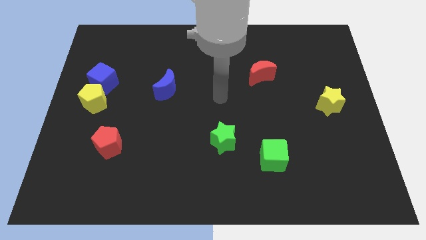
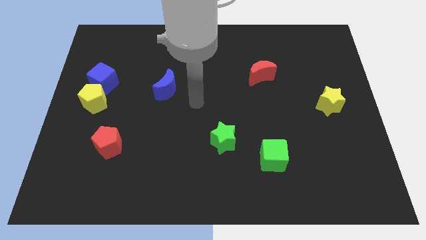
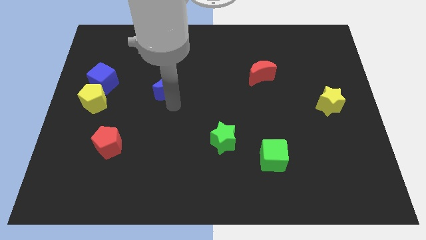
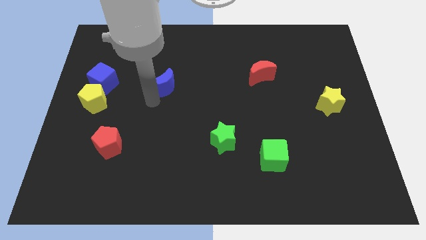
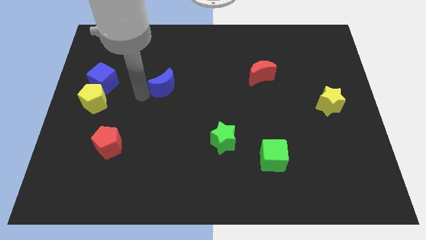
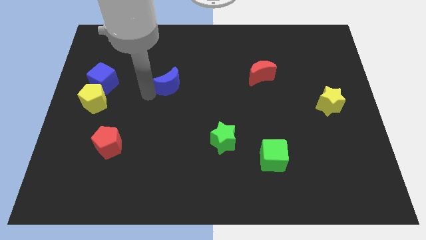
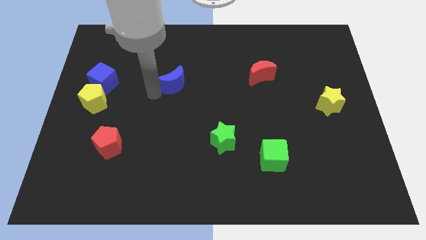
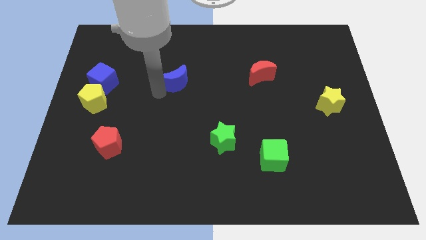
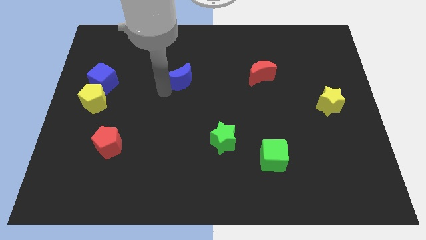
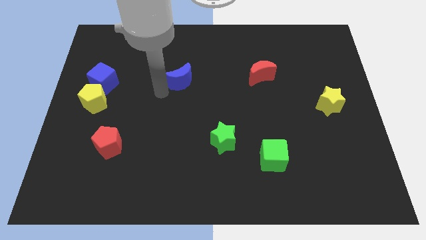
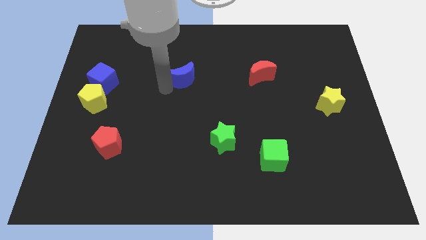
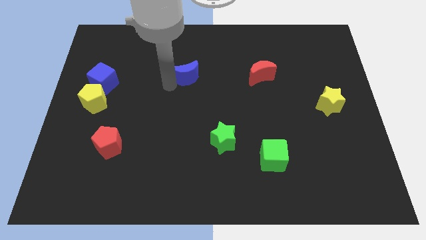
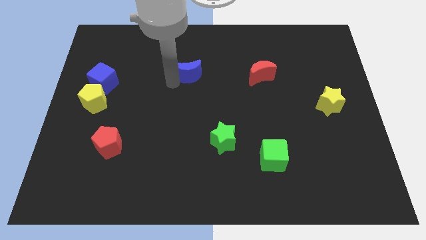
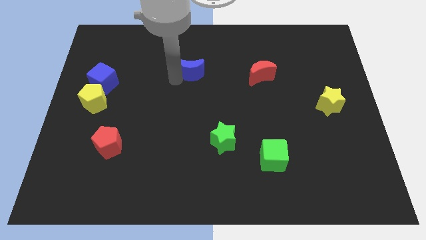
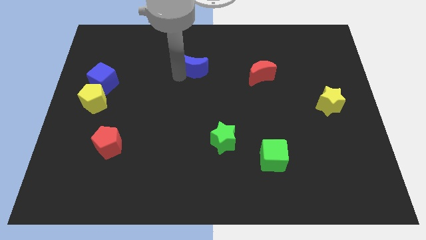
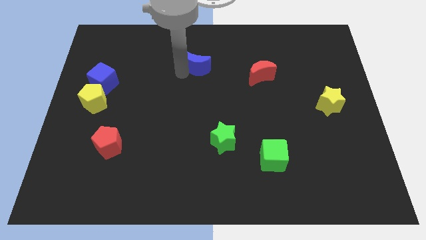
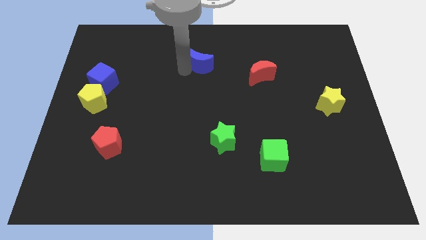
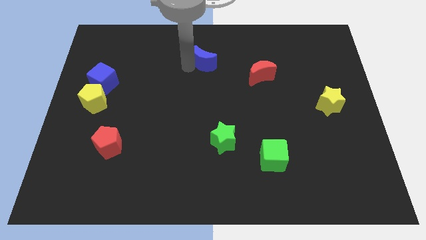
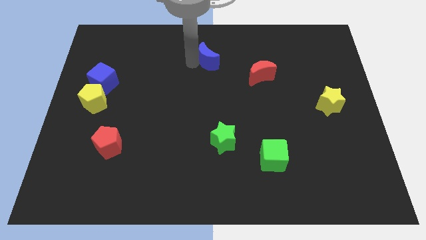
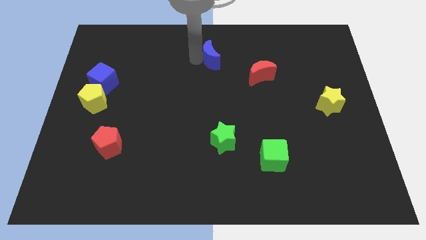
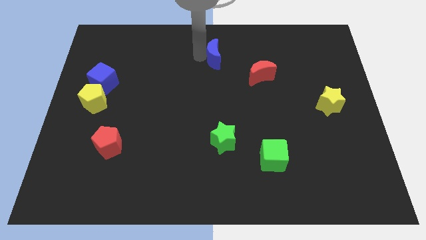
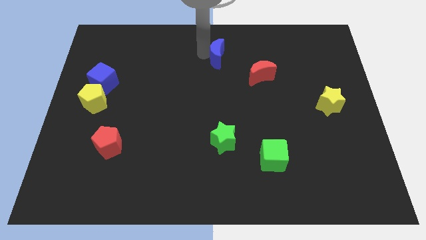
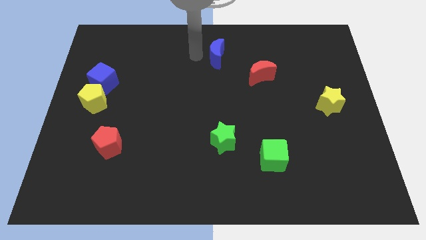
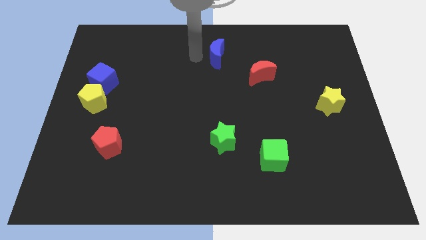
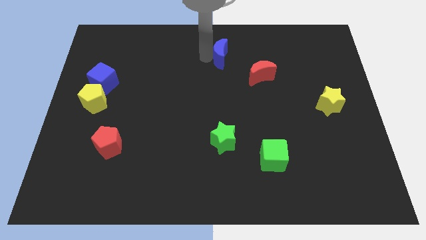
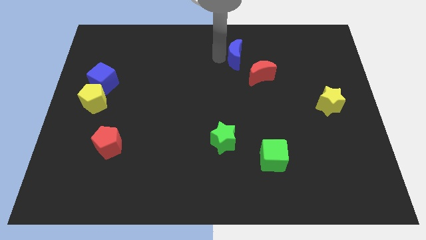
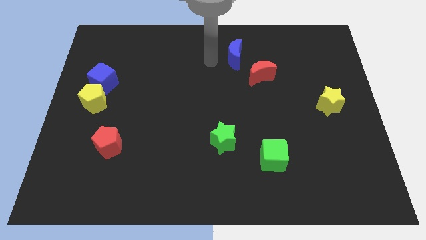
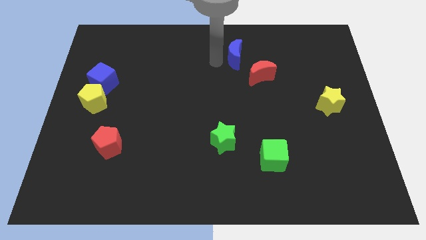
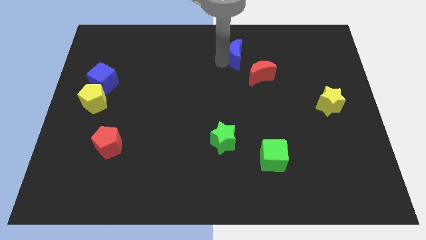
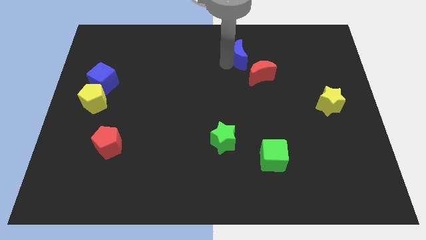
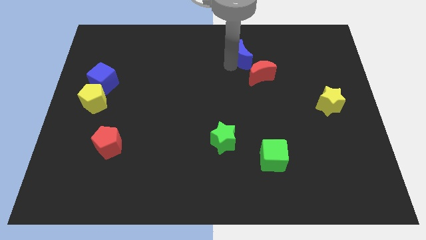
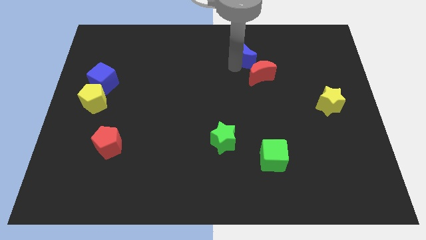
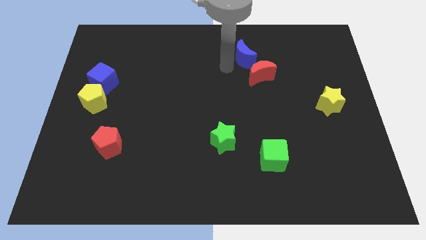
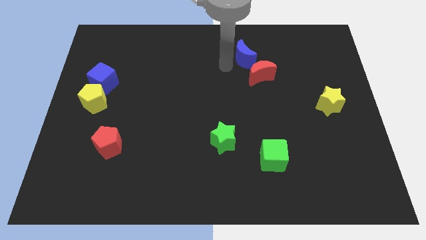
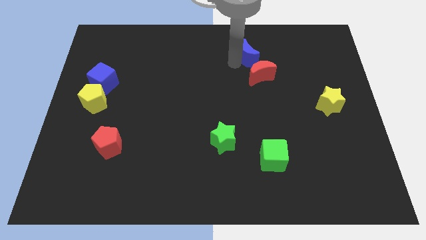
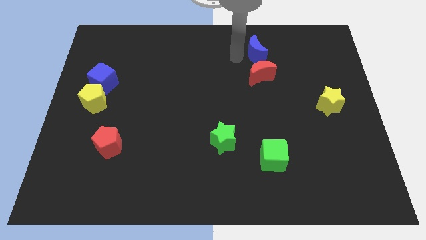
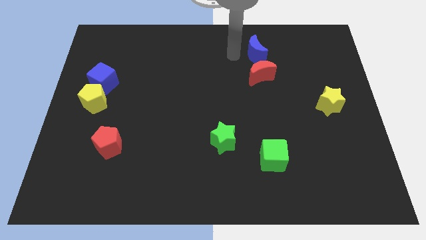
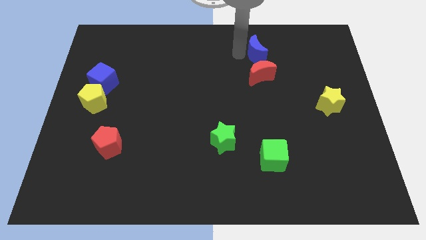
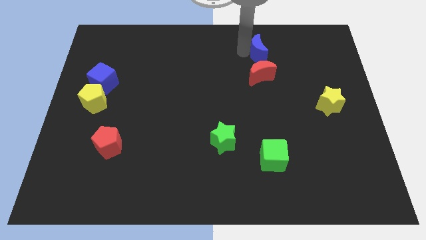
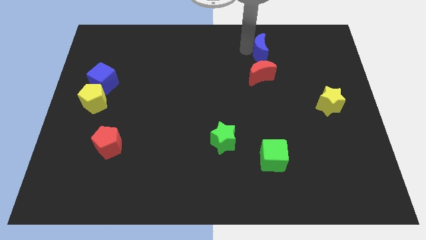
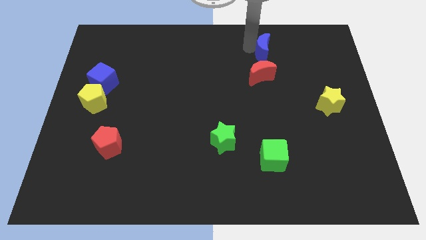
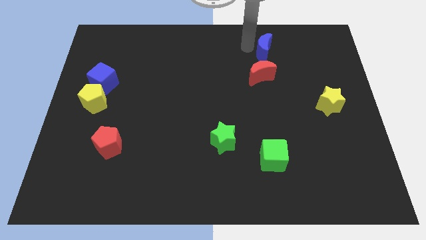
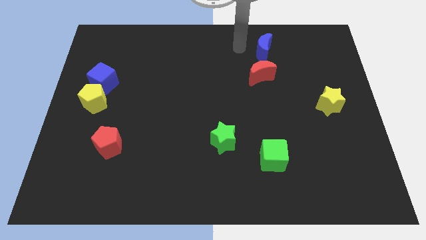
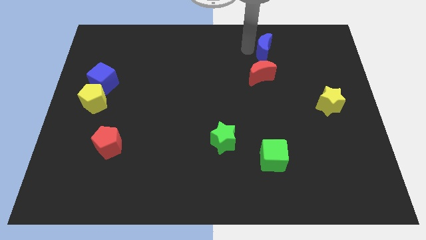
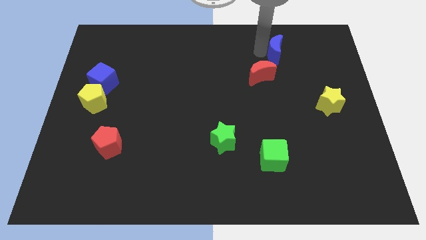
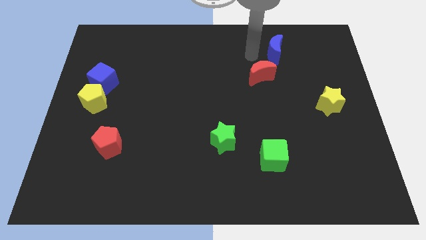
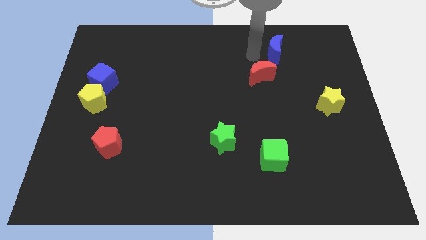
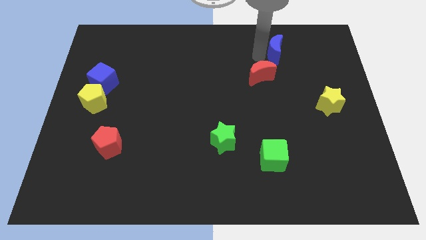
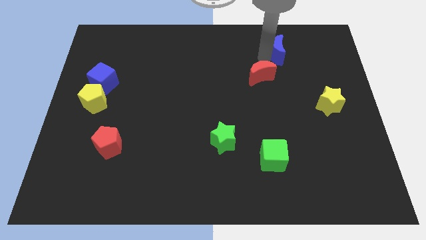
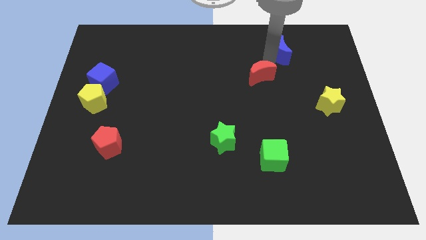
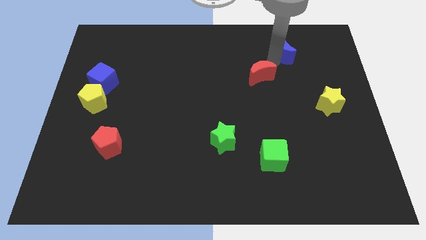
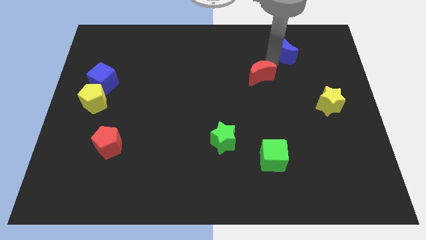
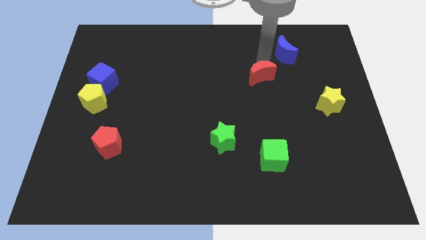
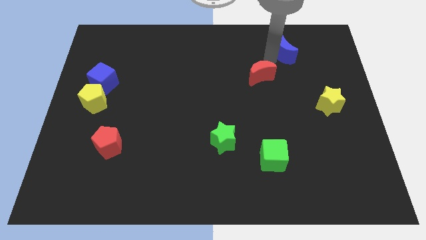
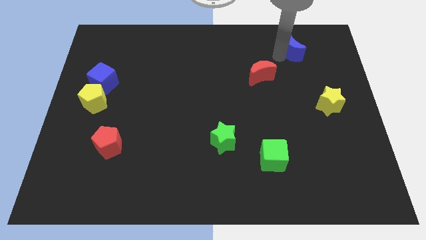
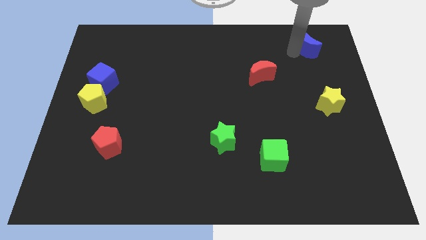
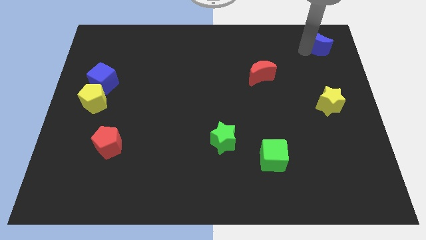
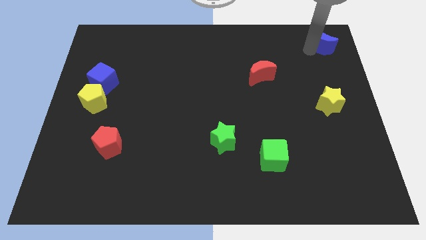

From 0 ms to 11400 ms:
slide the blue moon to the top right

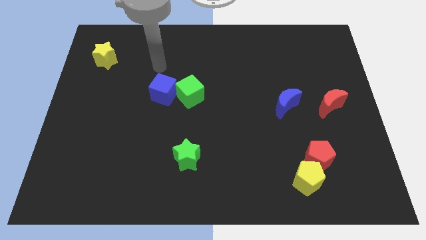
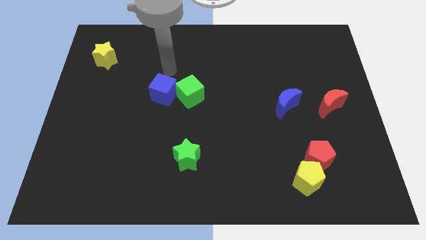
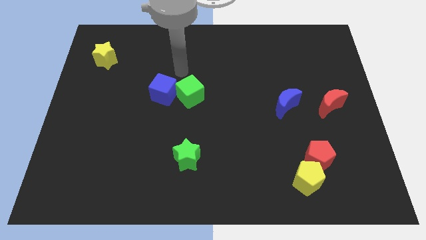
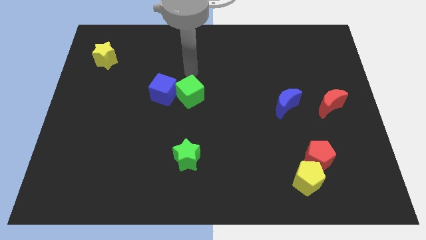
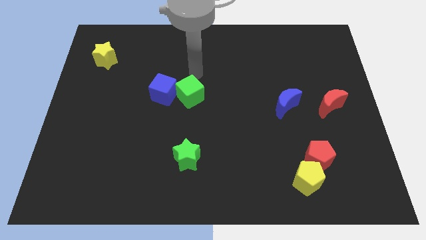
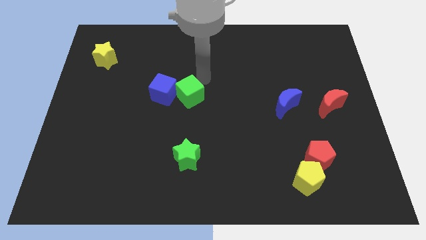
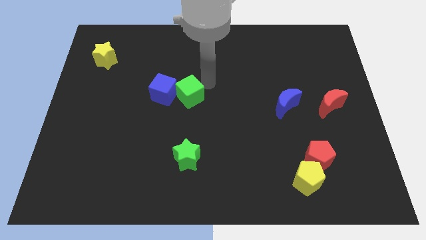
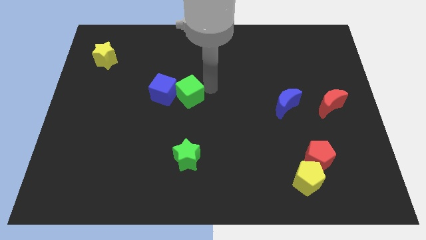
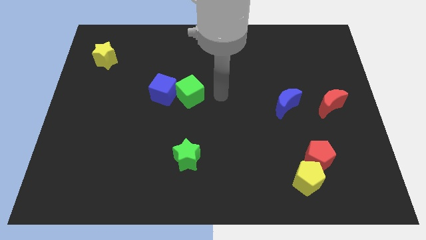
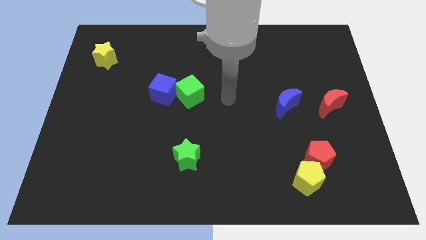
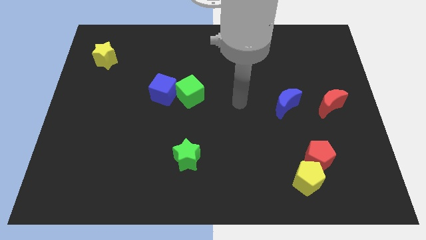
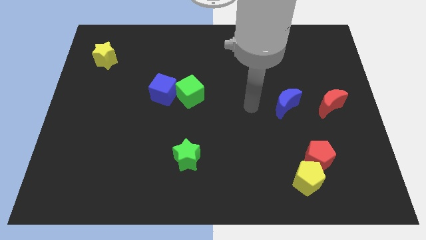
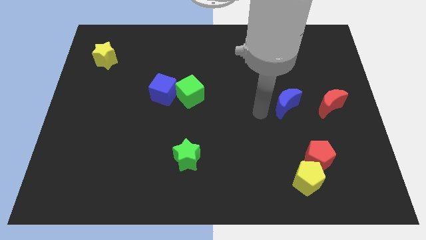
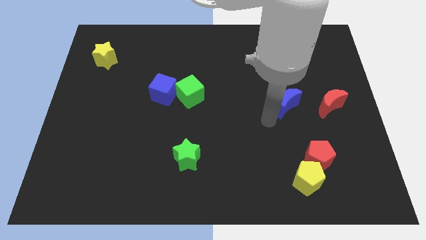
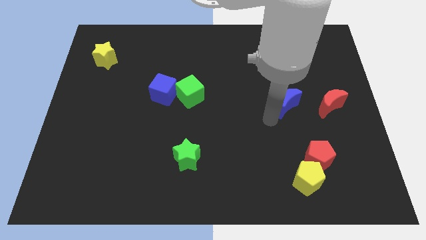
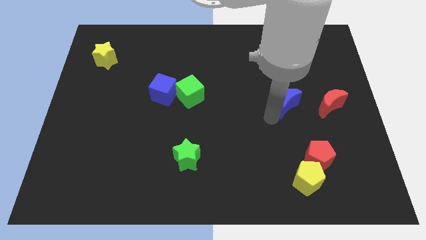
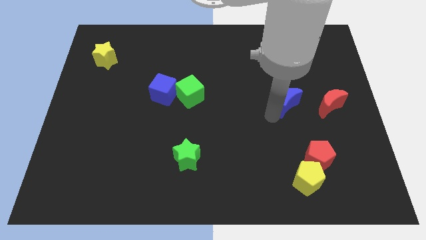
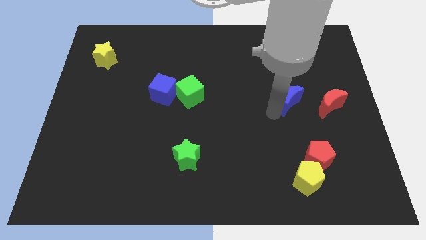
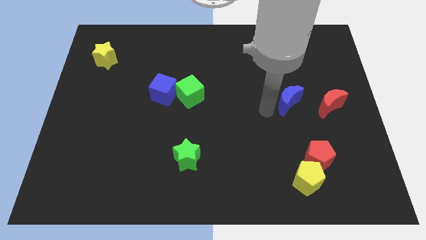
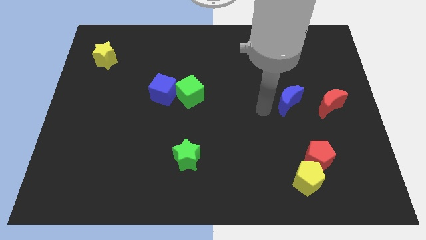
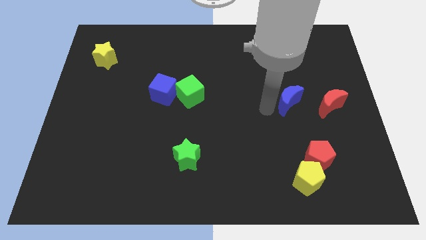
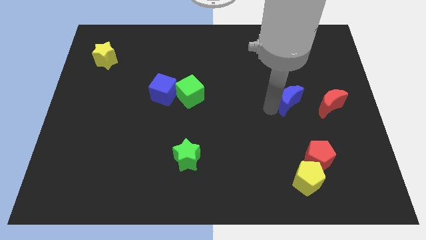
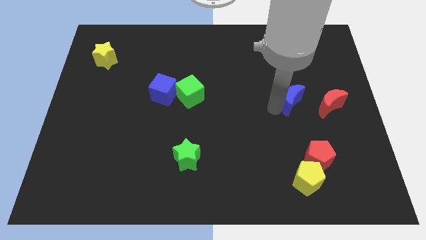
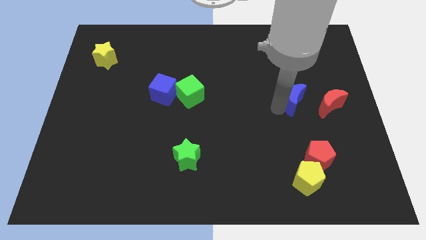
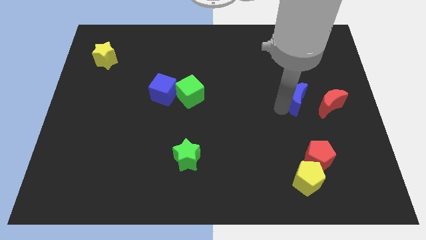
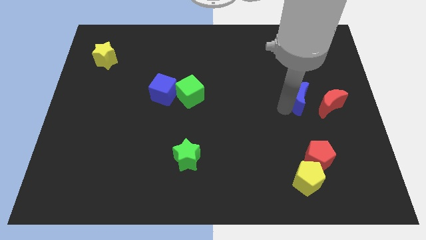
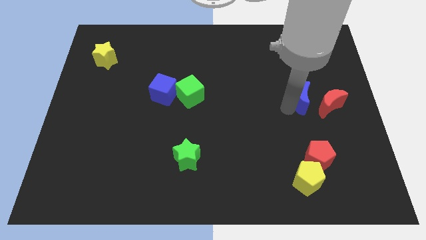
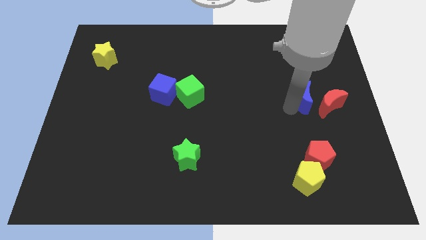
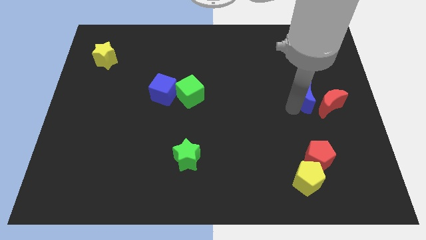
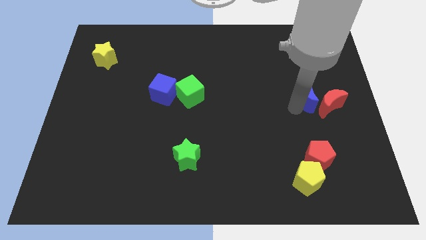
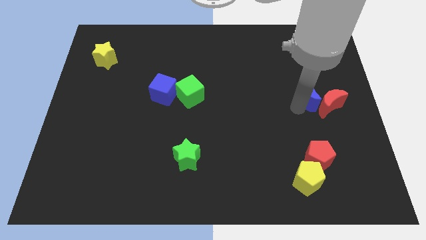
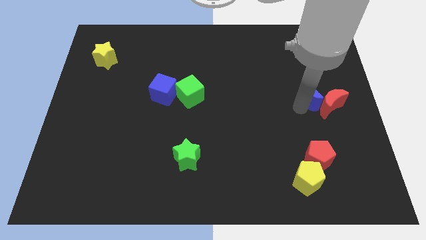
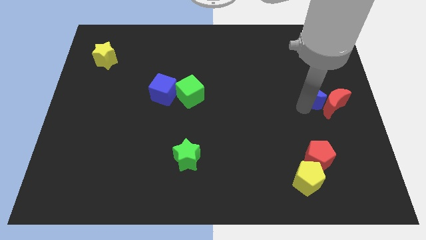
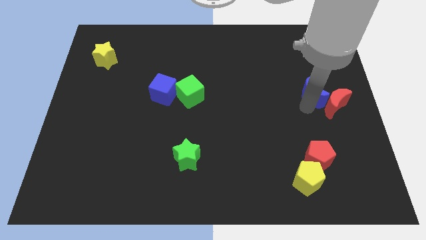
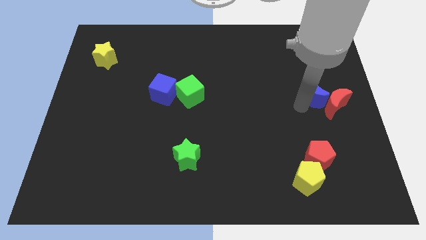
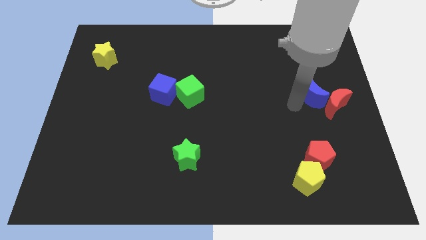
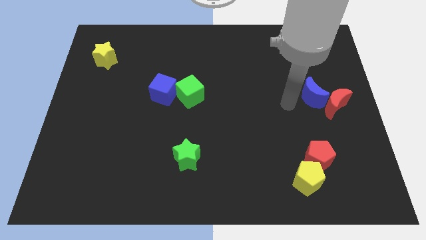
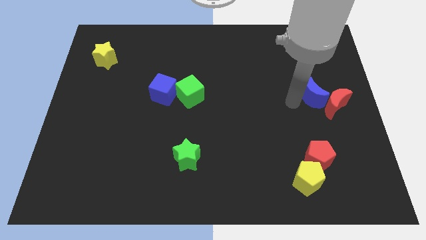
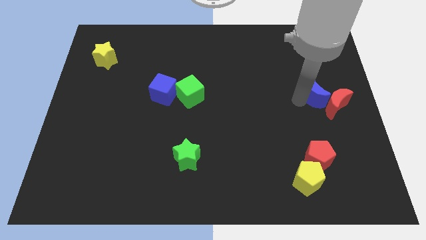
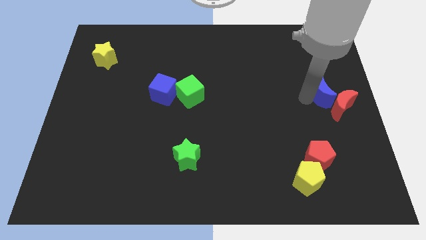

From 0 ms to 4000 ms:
put the blue moon to the right side
